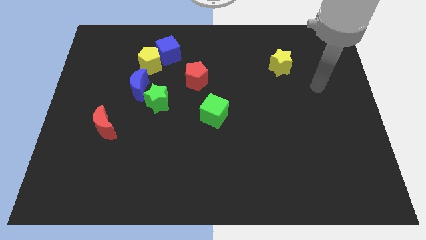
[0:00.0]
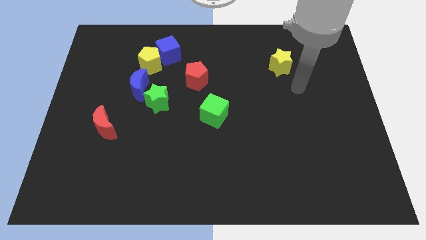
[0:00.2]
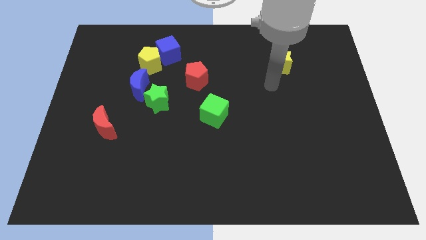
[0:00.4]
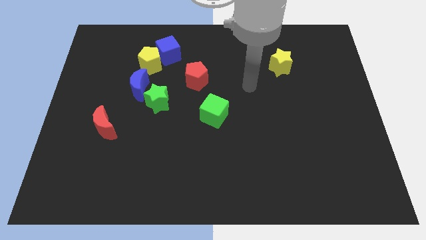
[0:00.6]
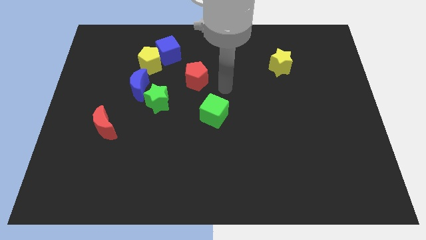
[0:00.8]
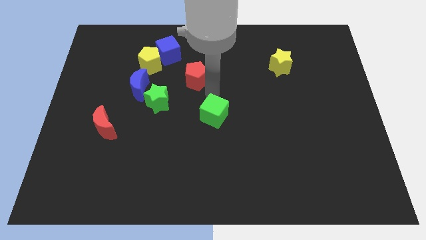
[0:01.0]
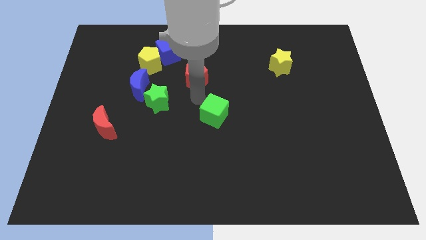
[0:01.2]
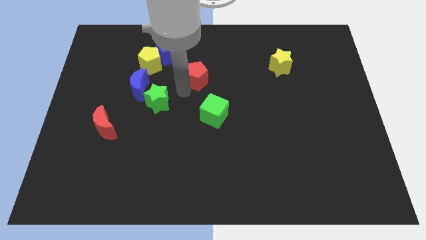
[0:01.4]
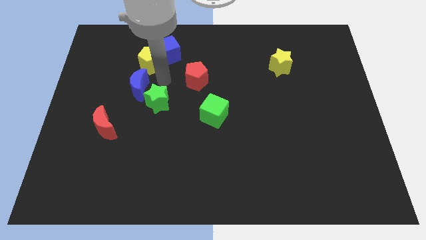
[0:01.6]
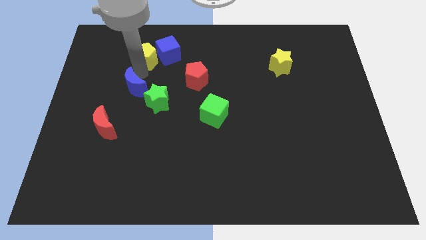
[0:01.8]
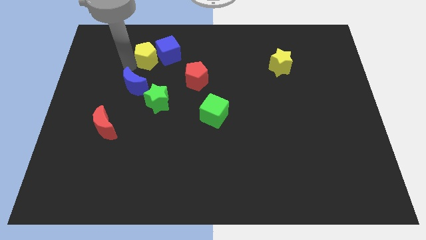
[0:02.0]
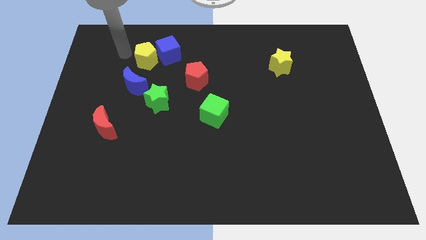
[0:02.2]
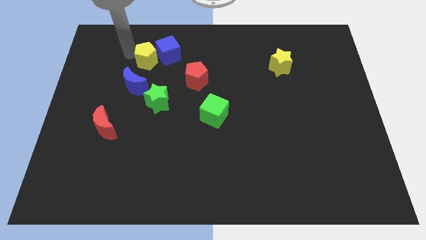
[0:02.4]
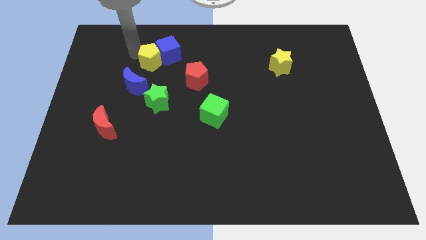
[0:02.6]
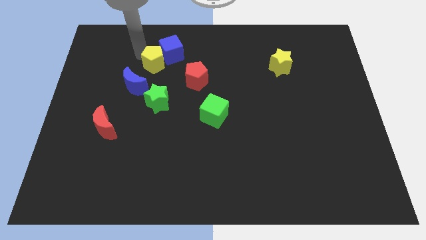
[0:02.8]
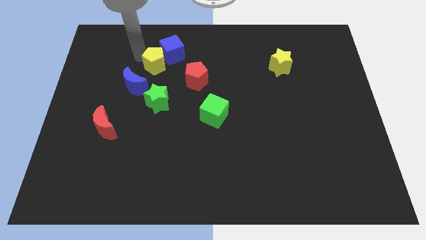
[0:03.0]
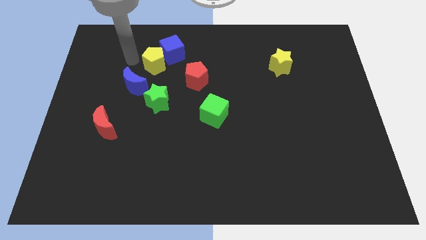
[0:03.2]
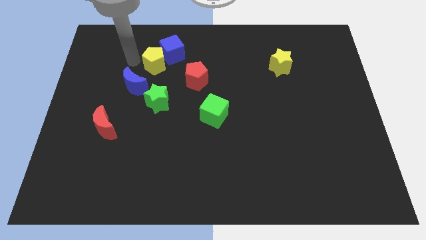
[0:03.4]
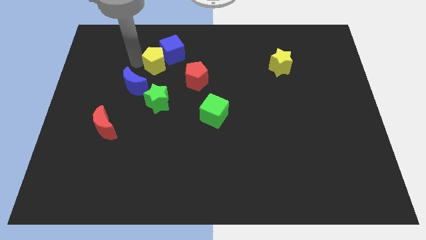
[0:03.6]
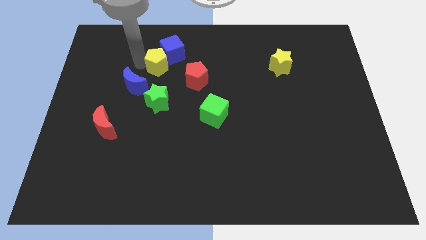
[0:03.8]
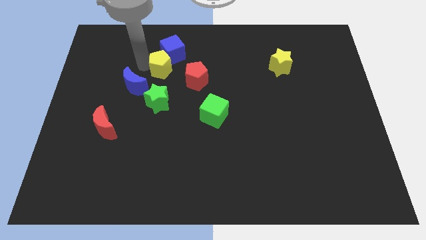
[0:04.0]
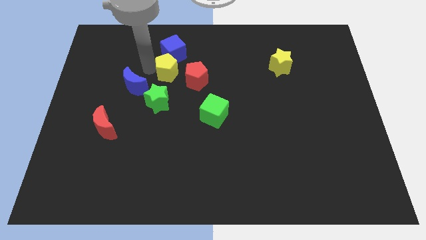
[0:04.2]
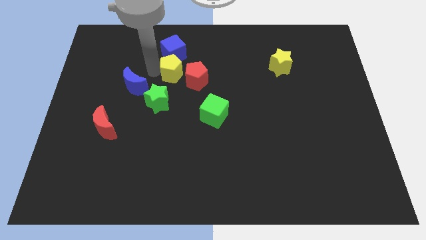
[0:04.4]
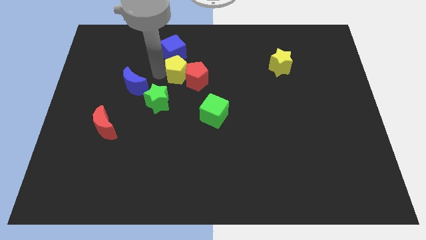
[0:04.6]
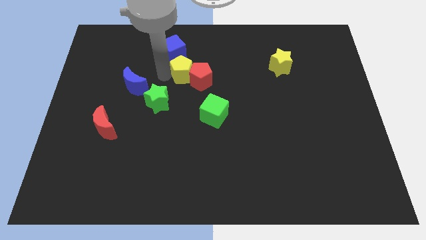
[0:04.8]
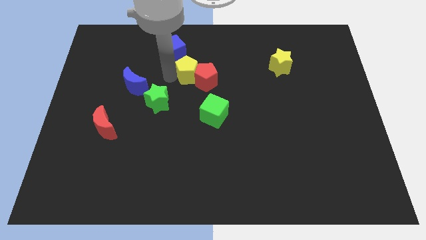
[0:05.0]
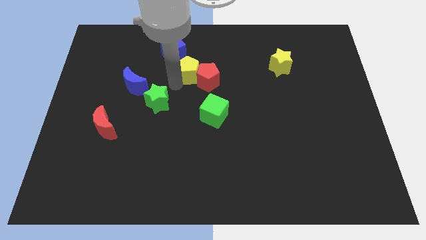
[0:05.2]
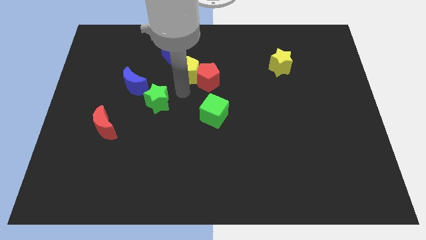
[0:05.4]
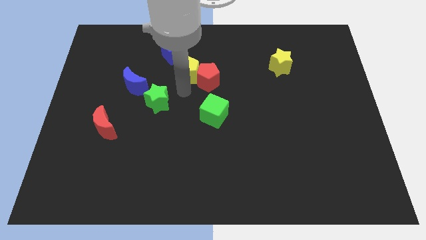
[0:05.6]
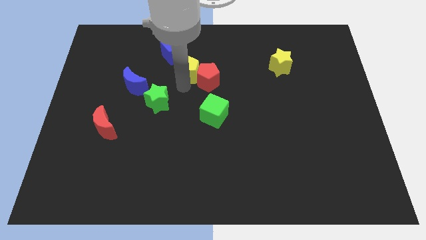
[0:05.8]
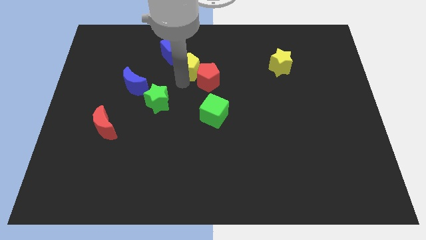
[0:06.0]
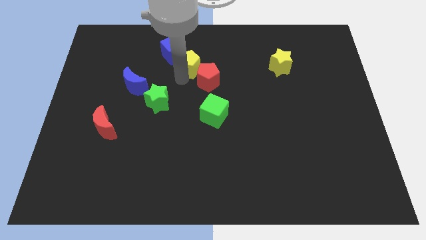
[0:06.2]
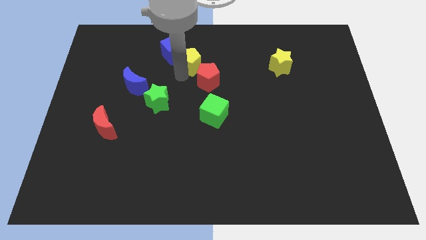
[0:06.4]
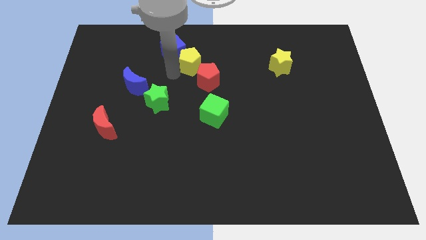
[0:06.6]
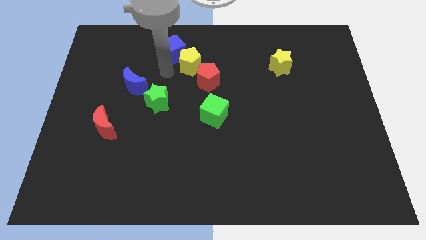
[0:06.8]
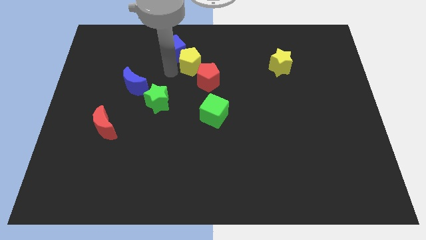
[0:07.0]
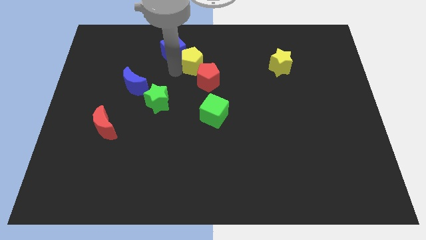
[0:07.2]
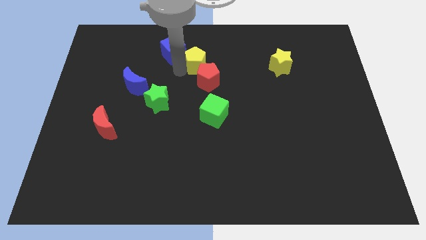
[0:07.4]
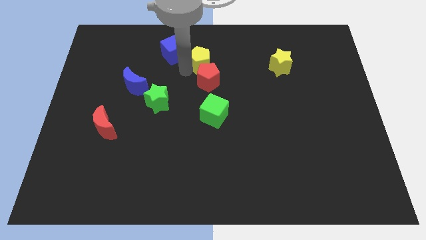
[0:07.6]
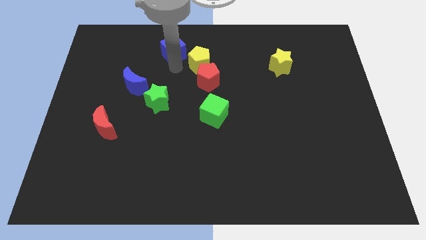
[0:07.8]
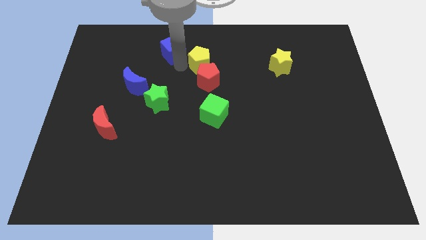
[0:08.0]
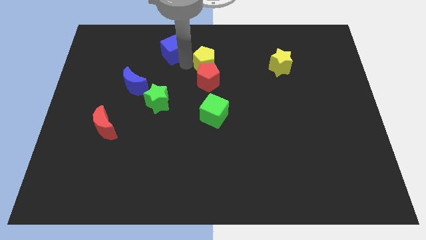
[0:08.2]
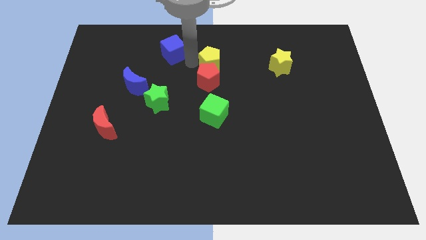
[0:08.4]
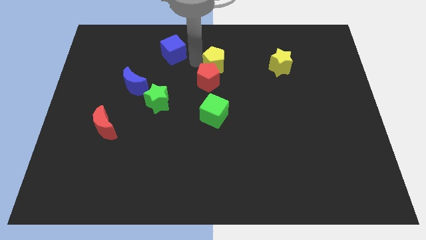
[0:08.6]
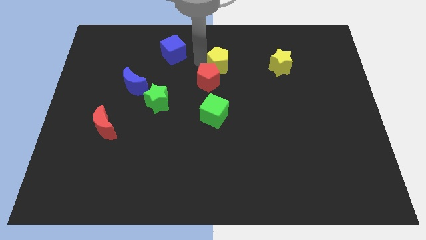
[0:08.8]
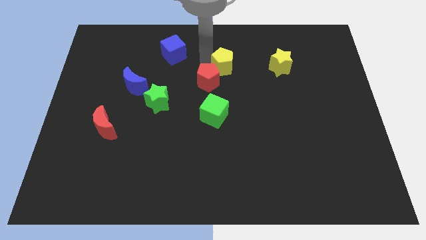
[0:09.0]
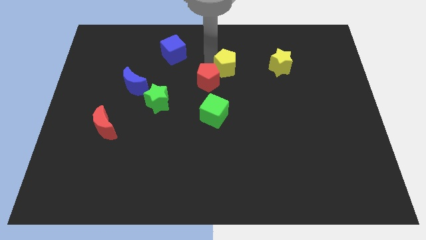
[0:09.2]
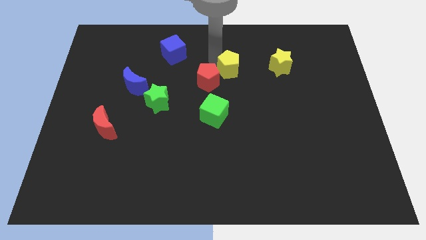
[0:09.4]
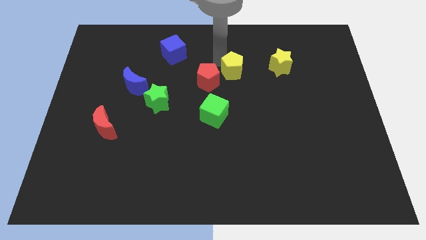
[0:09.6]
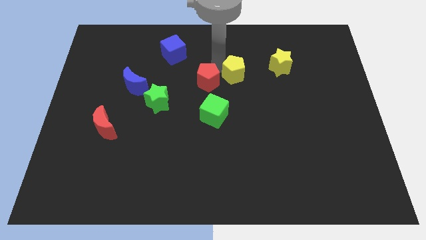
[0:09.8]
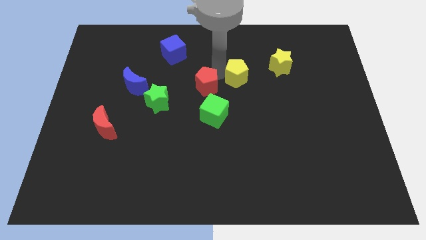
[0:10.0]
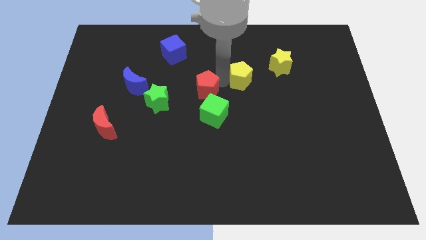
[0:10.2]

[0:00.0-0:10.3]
push the yellow pentagon to the bottom left of the yellow star

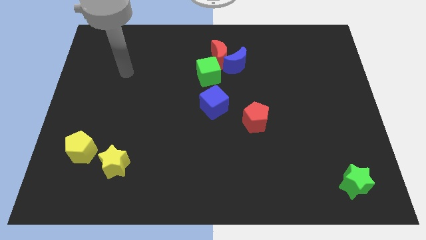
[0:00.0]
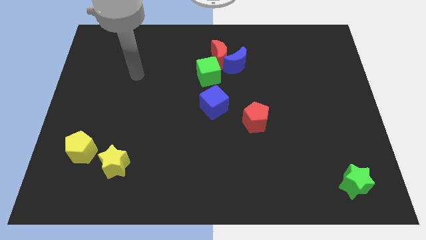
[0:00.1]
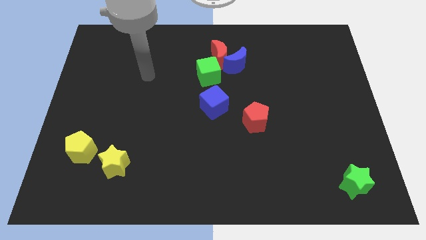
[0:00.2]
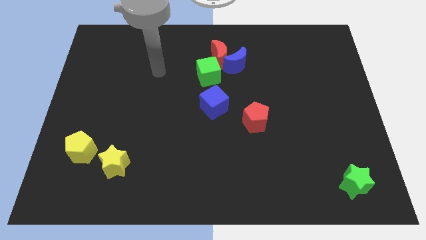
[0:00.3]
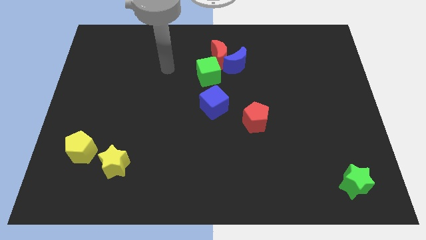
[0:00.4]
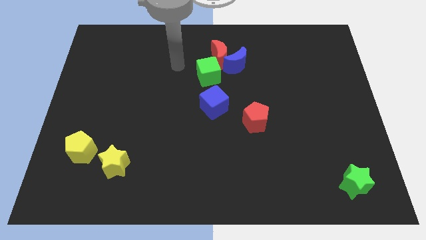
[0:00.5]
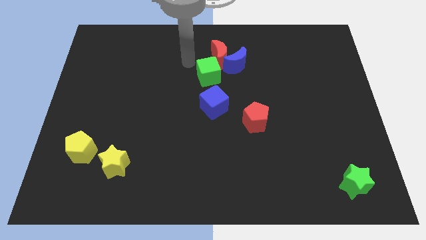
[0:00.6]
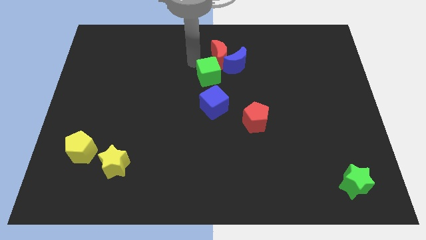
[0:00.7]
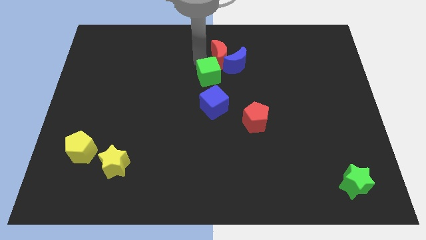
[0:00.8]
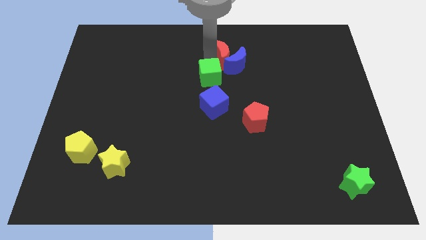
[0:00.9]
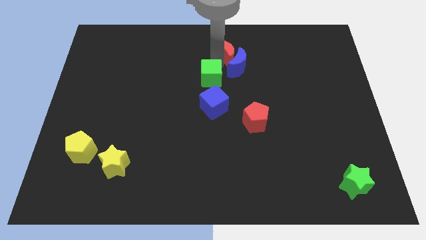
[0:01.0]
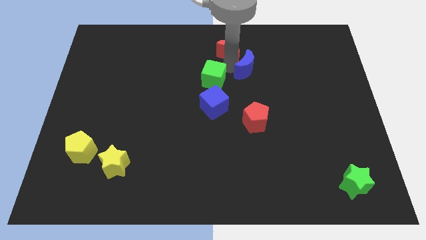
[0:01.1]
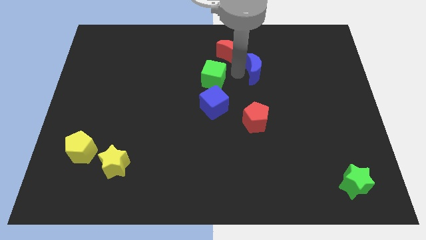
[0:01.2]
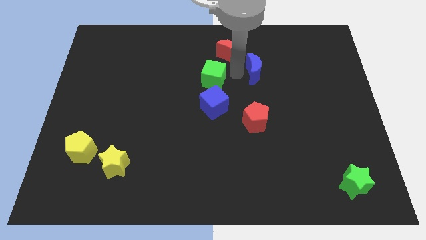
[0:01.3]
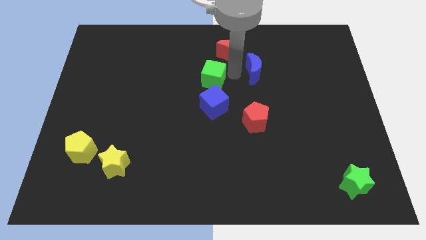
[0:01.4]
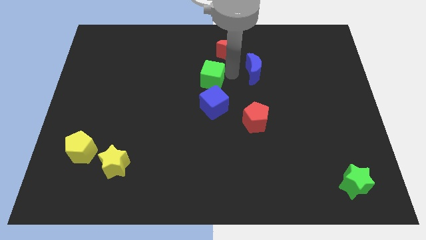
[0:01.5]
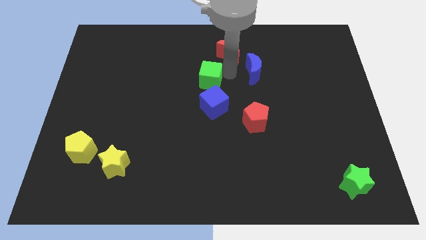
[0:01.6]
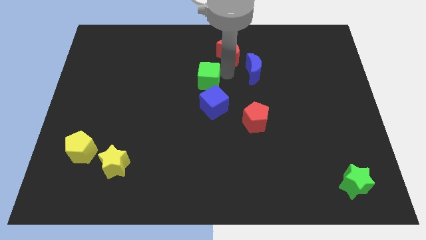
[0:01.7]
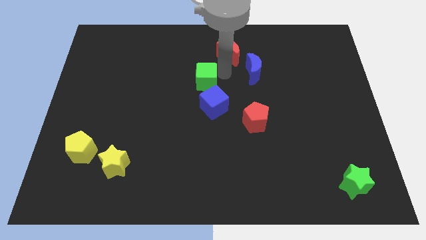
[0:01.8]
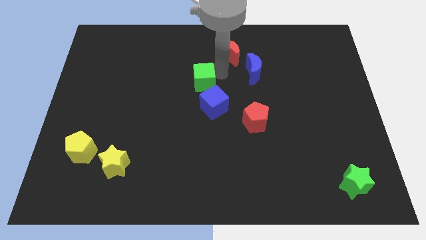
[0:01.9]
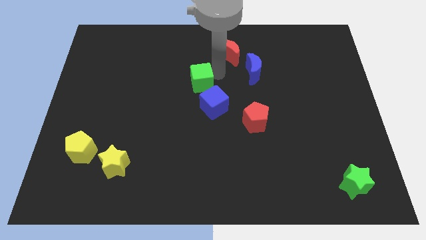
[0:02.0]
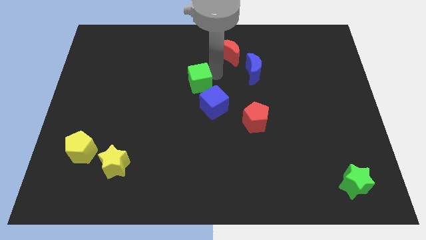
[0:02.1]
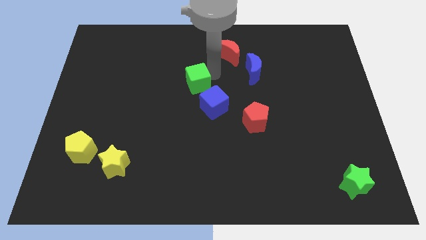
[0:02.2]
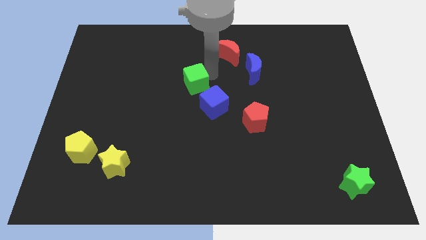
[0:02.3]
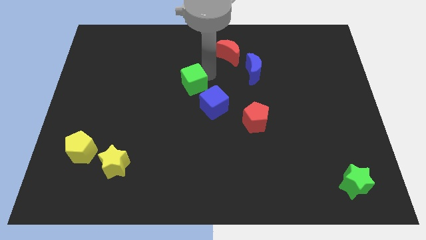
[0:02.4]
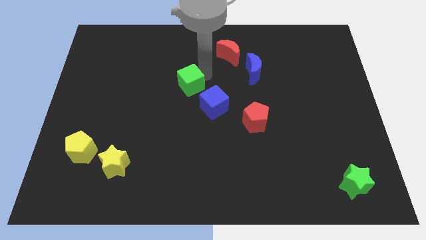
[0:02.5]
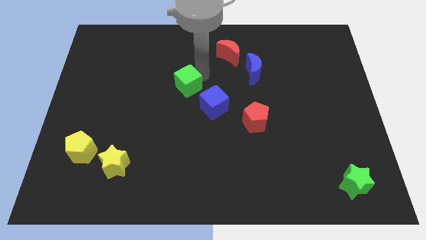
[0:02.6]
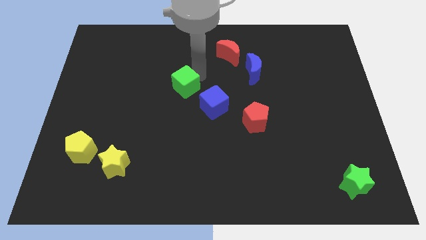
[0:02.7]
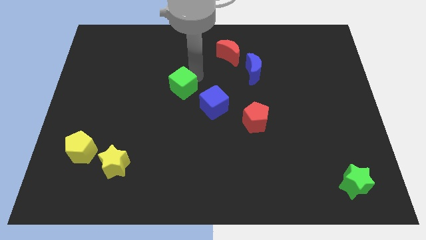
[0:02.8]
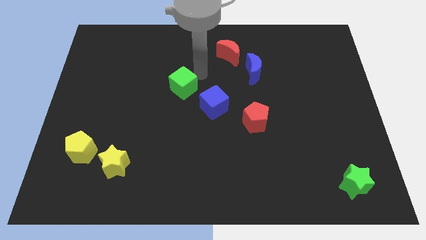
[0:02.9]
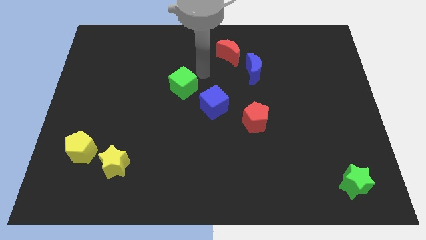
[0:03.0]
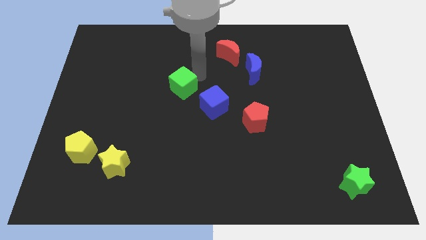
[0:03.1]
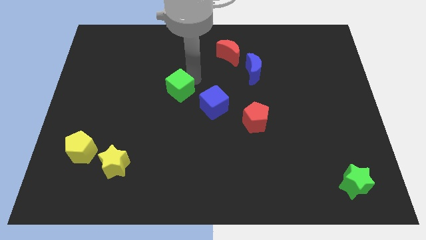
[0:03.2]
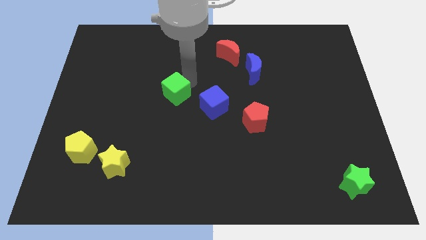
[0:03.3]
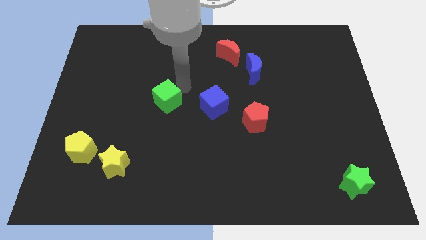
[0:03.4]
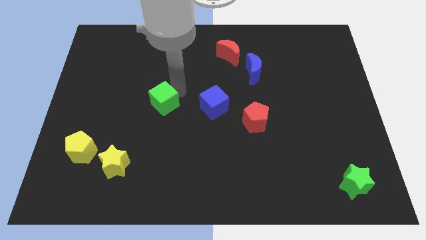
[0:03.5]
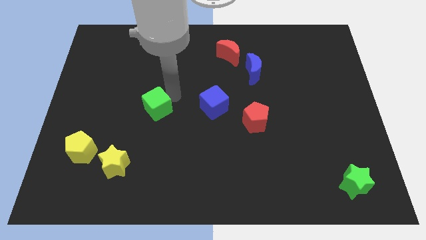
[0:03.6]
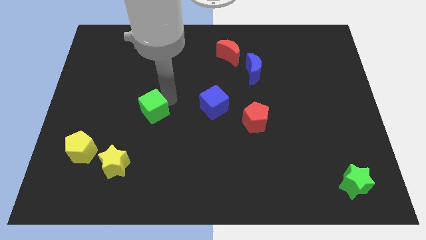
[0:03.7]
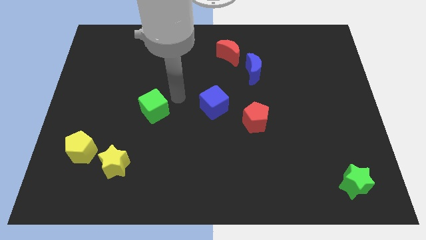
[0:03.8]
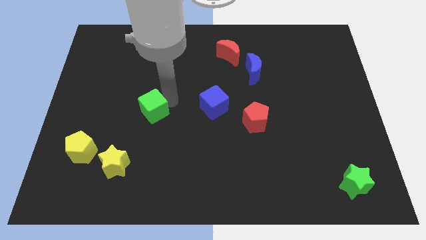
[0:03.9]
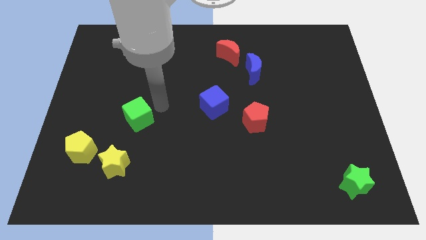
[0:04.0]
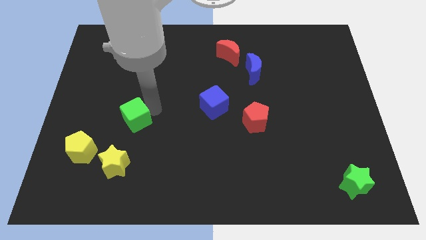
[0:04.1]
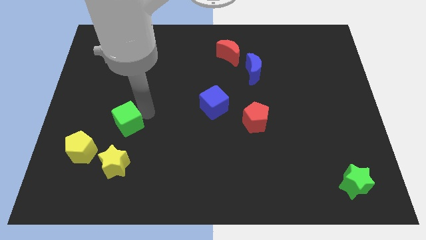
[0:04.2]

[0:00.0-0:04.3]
slide the green cube to the top right side of the yellow pentagon
